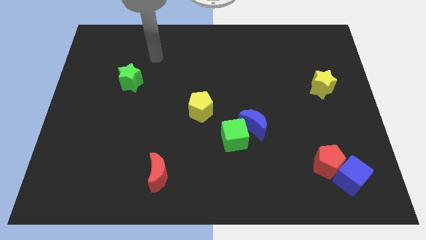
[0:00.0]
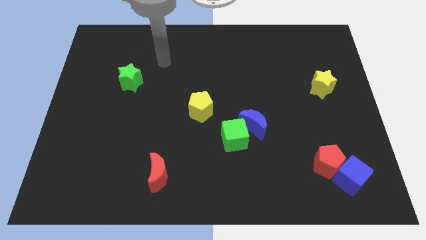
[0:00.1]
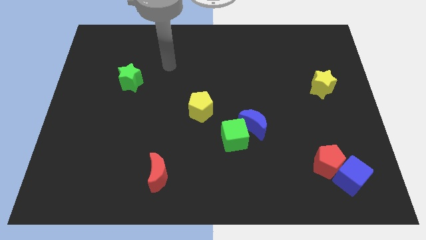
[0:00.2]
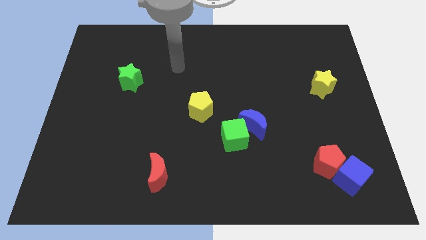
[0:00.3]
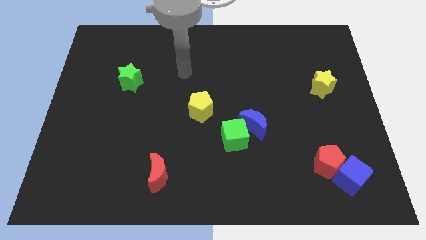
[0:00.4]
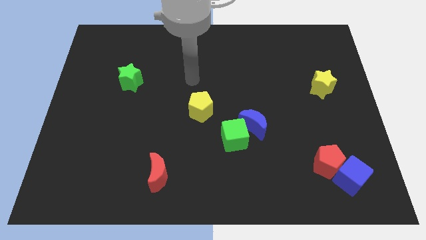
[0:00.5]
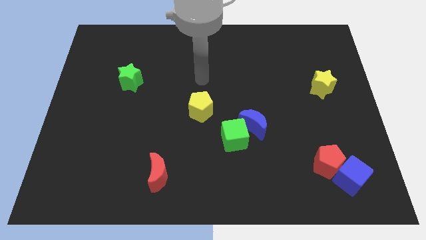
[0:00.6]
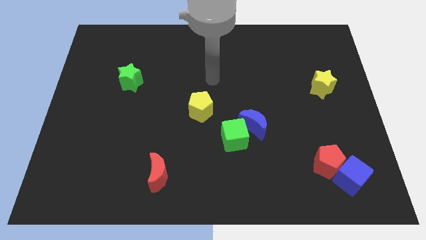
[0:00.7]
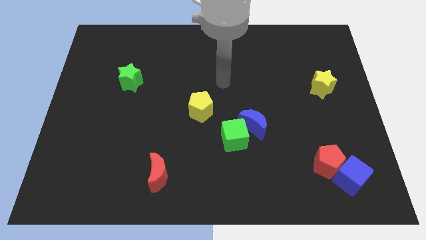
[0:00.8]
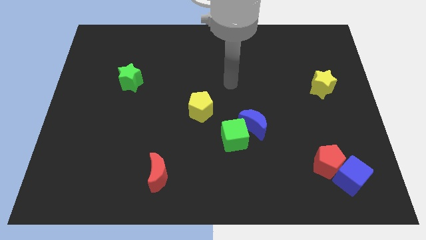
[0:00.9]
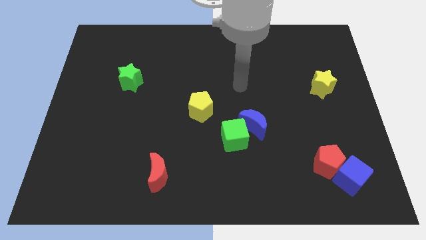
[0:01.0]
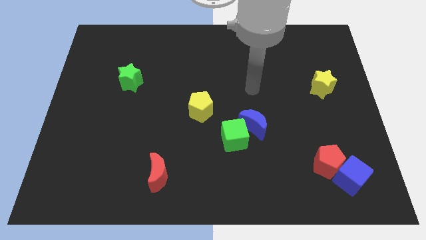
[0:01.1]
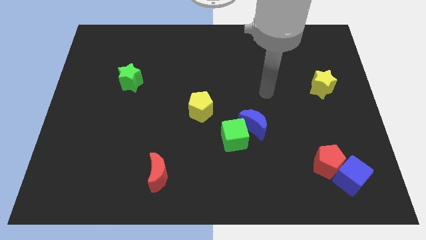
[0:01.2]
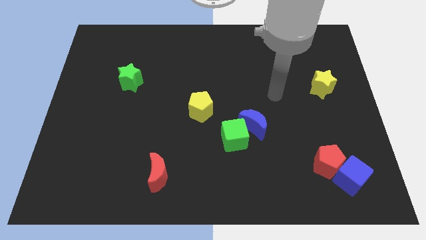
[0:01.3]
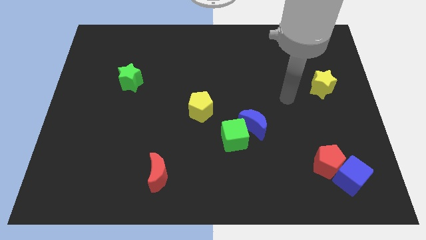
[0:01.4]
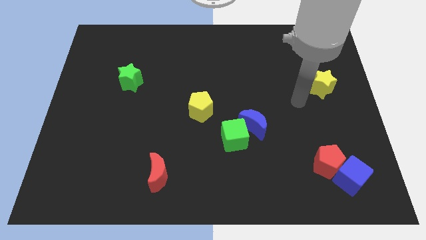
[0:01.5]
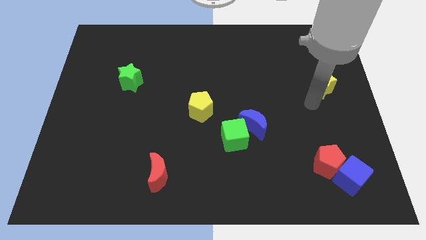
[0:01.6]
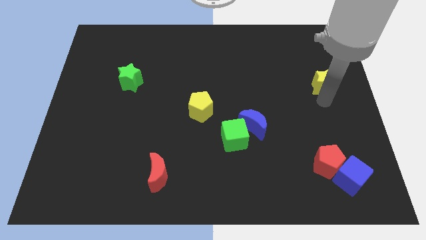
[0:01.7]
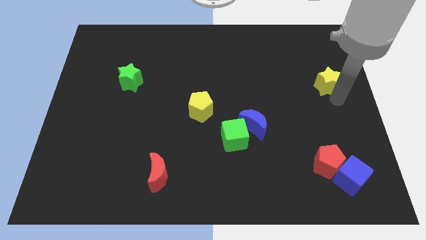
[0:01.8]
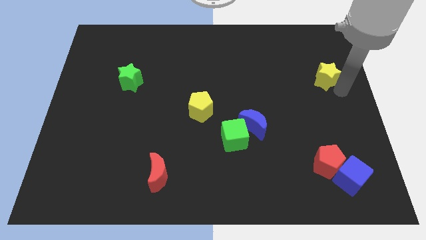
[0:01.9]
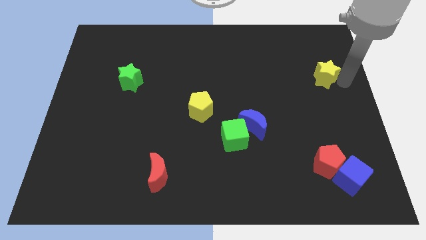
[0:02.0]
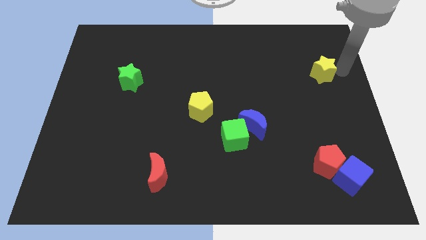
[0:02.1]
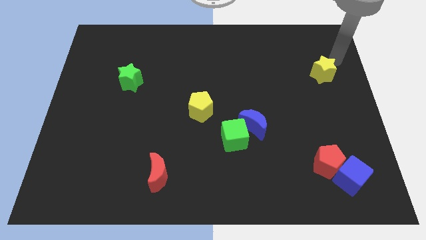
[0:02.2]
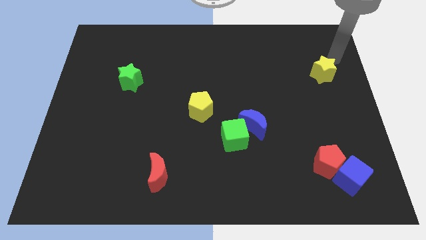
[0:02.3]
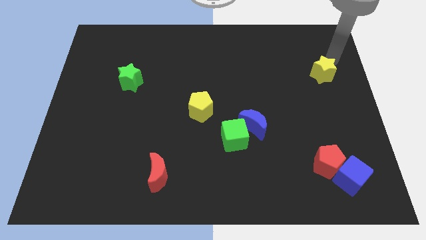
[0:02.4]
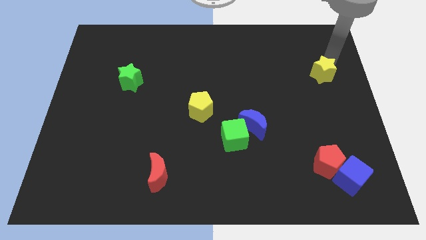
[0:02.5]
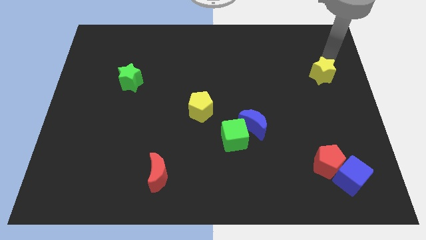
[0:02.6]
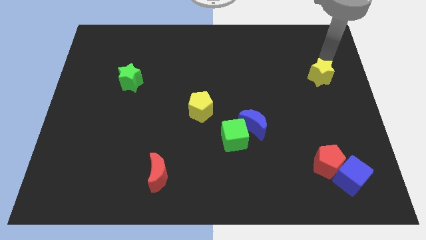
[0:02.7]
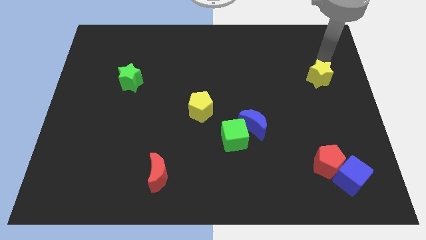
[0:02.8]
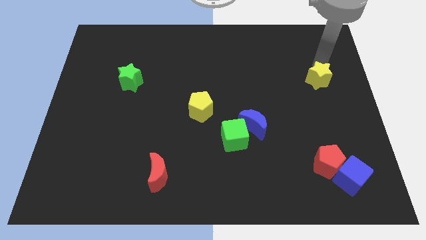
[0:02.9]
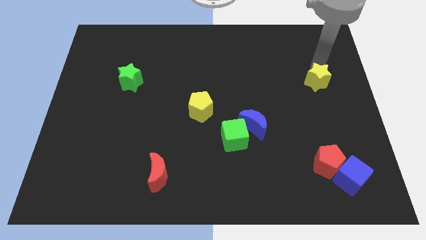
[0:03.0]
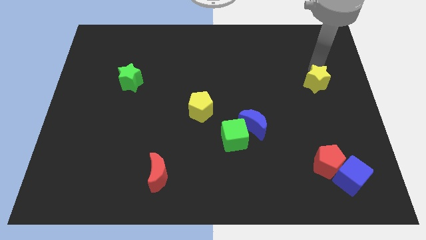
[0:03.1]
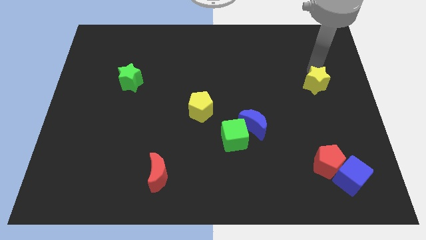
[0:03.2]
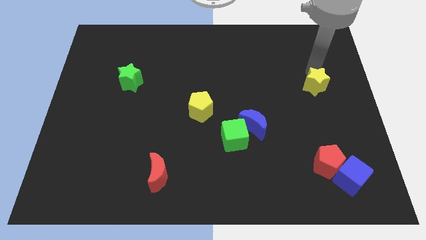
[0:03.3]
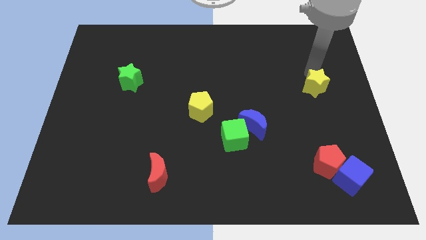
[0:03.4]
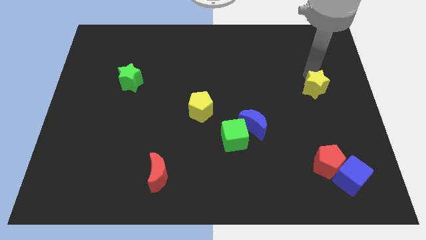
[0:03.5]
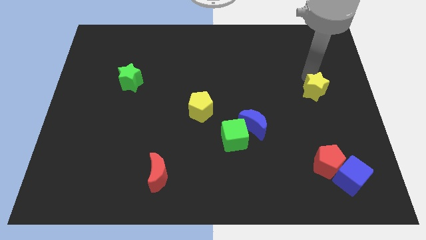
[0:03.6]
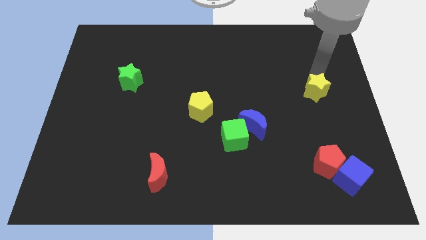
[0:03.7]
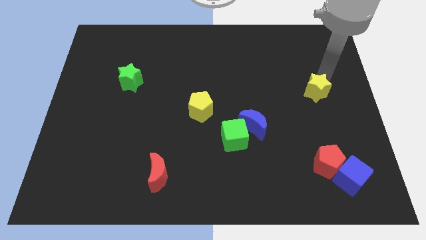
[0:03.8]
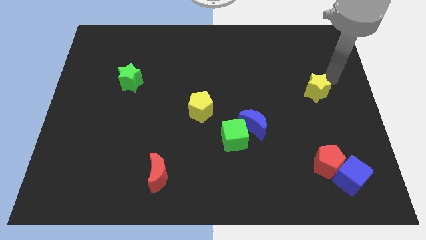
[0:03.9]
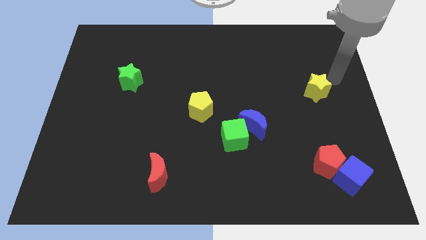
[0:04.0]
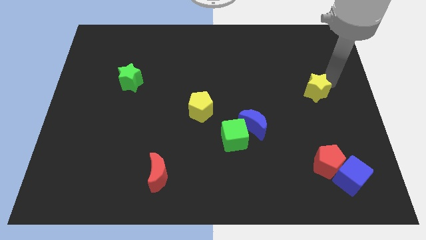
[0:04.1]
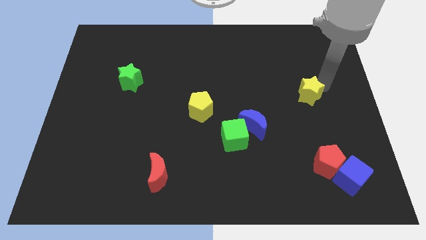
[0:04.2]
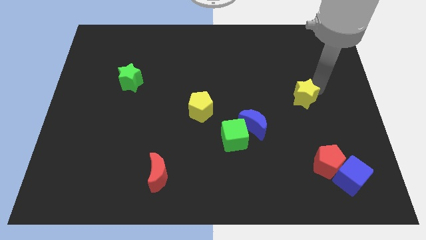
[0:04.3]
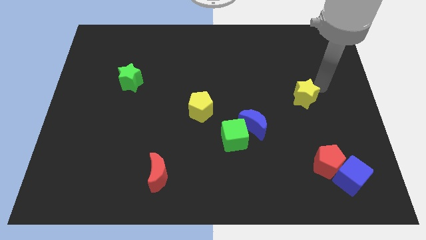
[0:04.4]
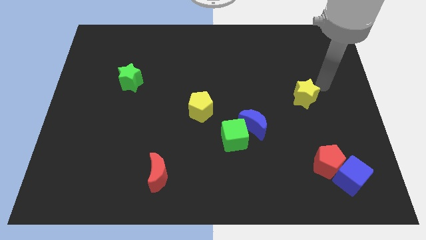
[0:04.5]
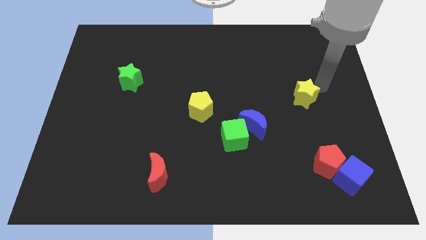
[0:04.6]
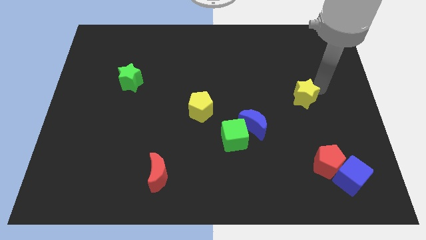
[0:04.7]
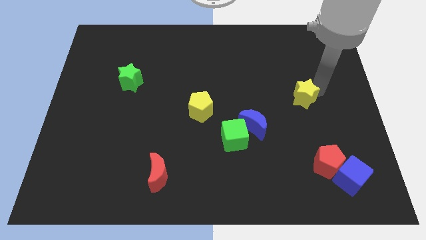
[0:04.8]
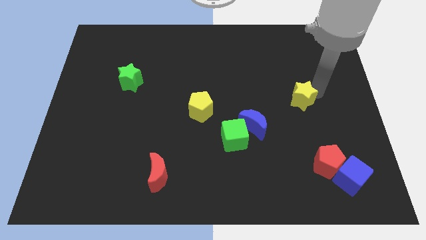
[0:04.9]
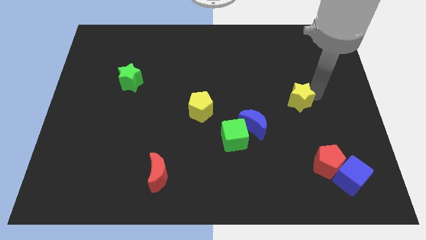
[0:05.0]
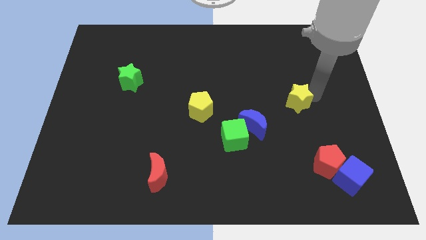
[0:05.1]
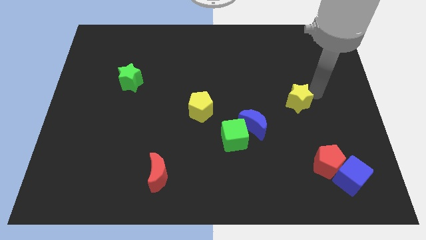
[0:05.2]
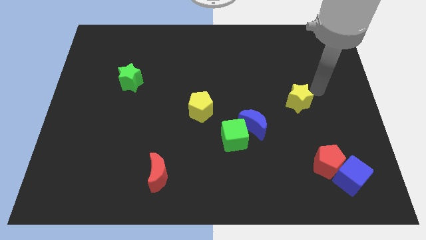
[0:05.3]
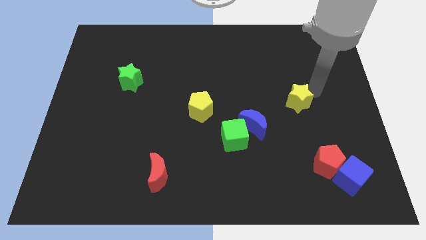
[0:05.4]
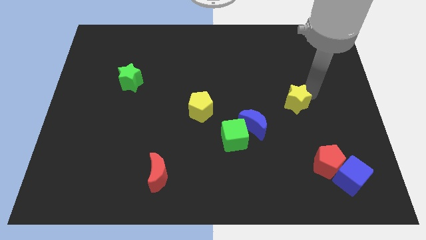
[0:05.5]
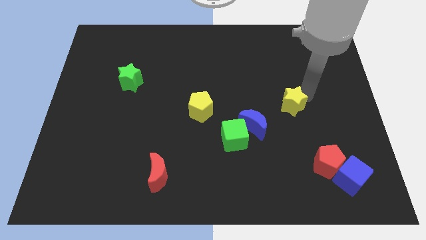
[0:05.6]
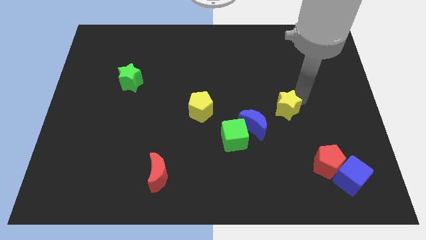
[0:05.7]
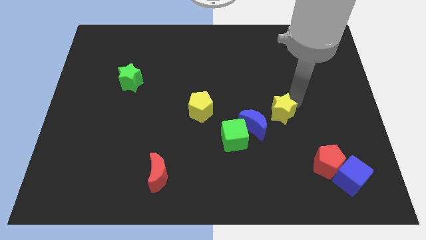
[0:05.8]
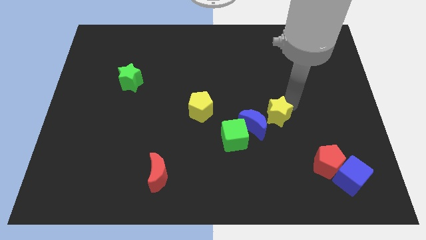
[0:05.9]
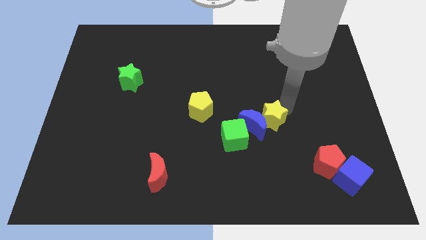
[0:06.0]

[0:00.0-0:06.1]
put the yellow star to the blue moon
